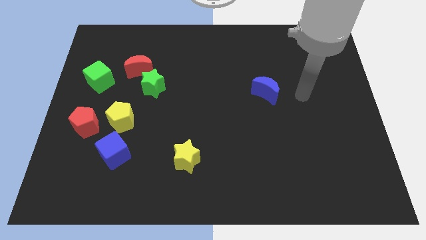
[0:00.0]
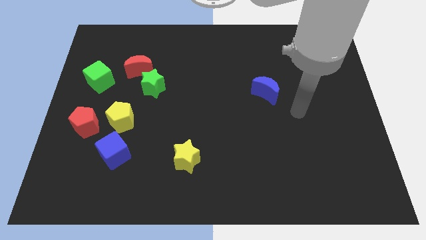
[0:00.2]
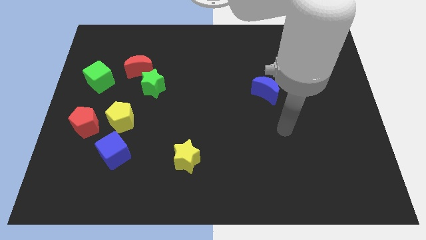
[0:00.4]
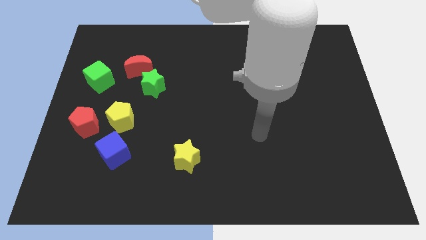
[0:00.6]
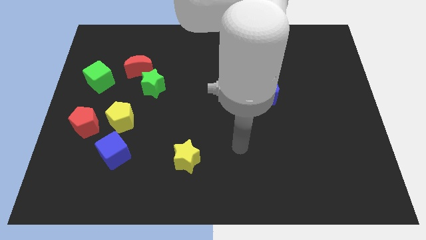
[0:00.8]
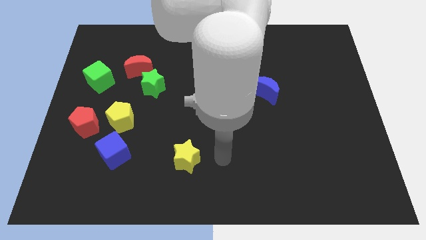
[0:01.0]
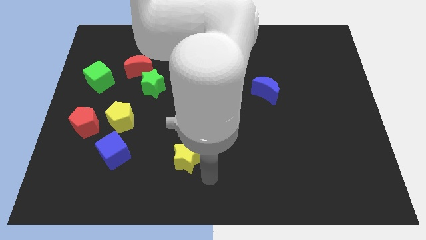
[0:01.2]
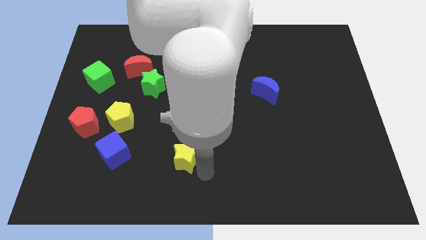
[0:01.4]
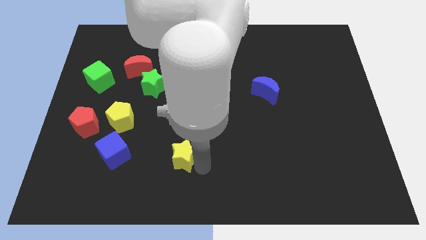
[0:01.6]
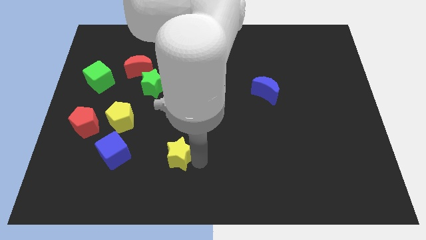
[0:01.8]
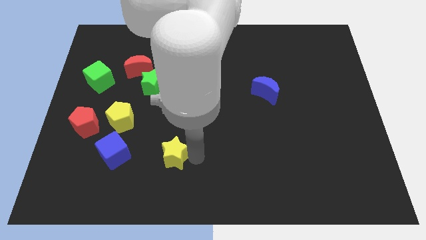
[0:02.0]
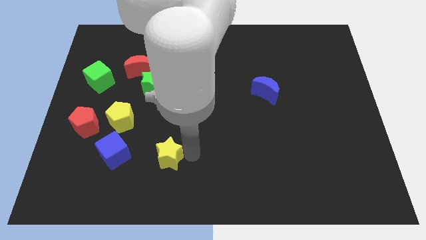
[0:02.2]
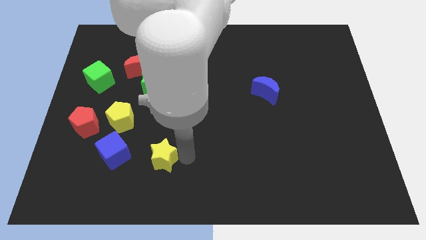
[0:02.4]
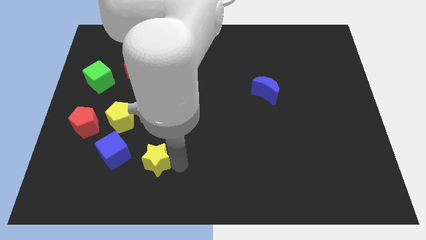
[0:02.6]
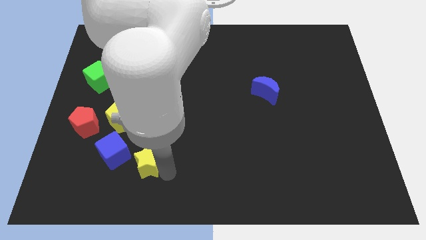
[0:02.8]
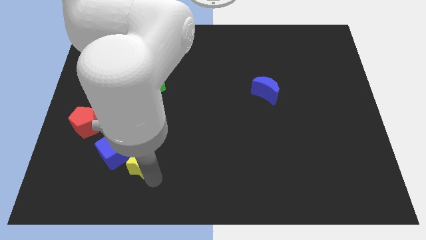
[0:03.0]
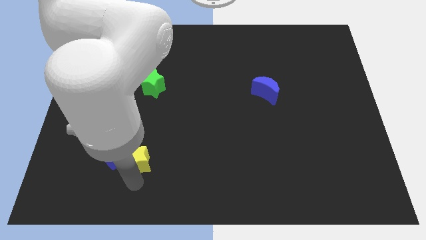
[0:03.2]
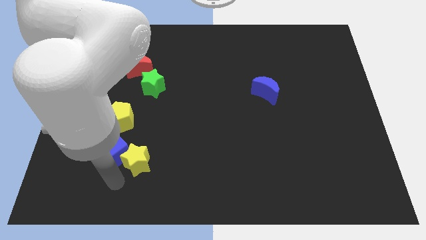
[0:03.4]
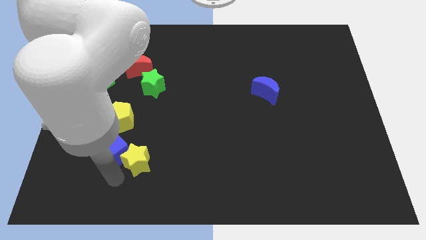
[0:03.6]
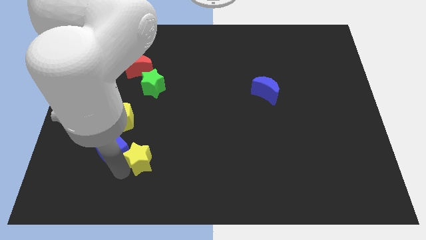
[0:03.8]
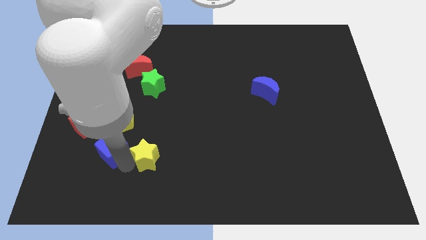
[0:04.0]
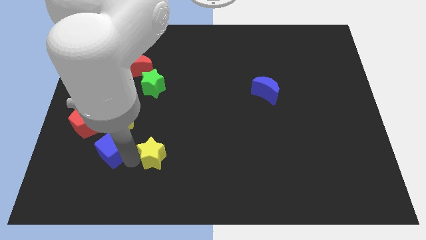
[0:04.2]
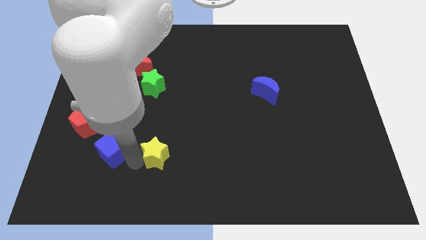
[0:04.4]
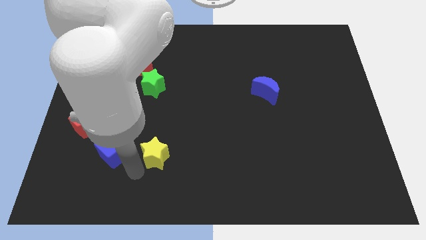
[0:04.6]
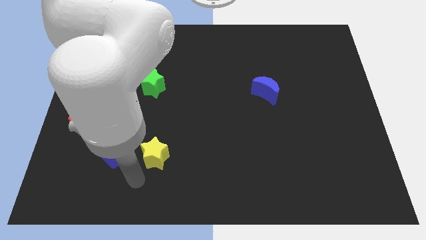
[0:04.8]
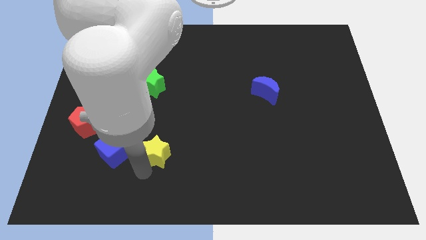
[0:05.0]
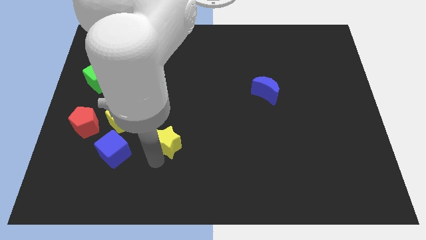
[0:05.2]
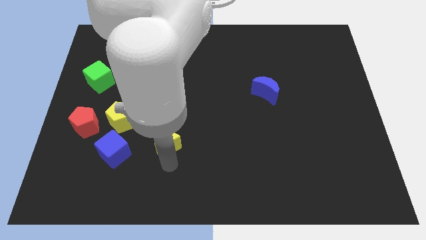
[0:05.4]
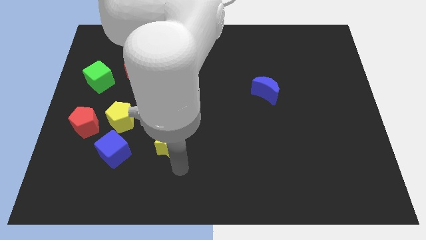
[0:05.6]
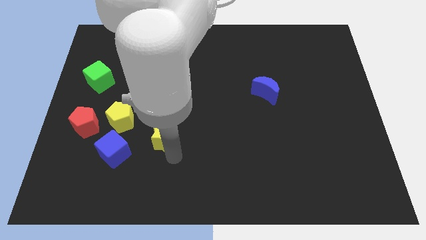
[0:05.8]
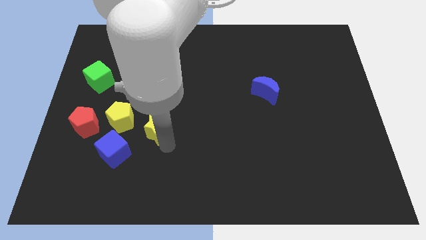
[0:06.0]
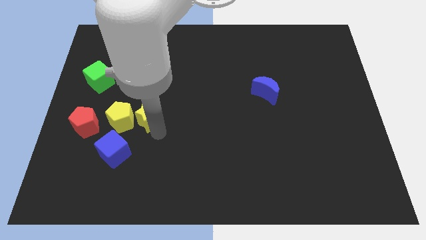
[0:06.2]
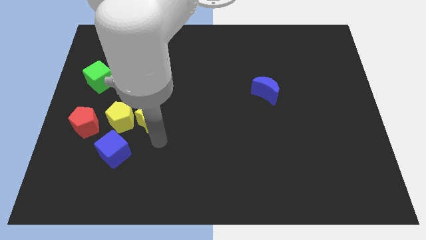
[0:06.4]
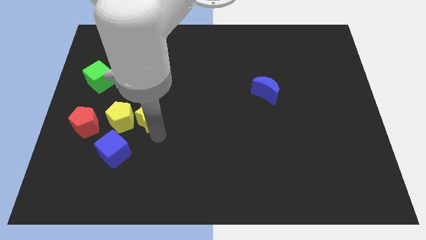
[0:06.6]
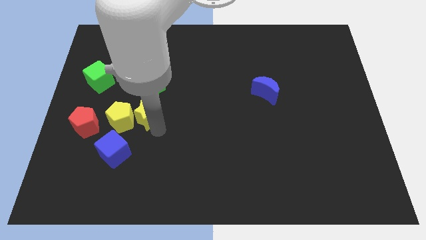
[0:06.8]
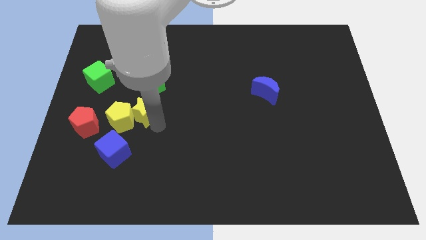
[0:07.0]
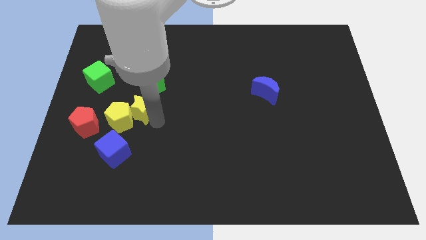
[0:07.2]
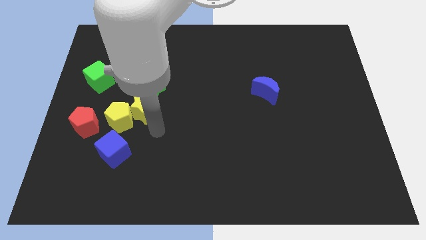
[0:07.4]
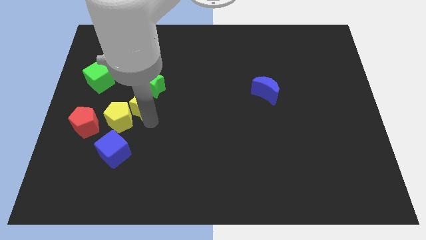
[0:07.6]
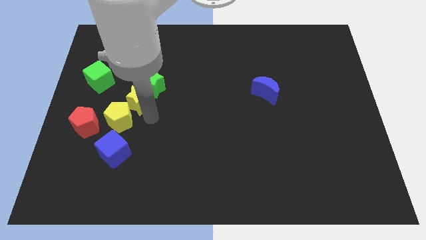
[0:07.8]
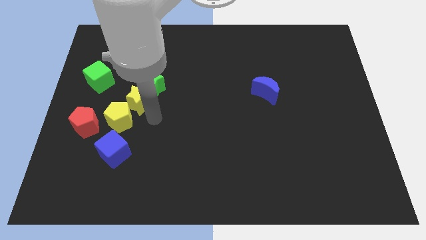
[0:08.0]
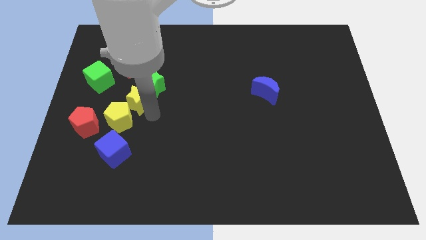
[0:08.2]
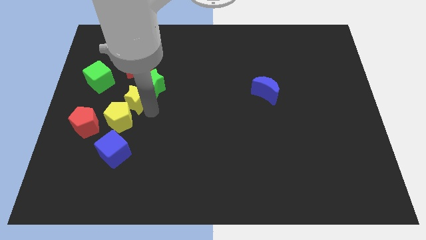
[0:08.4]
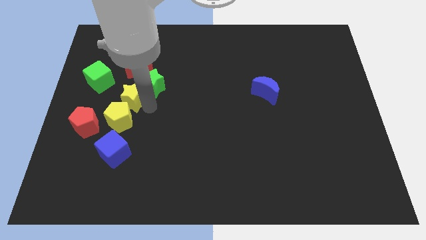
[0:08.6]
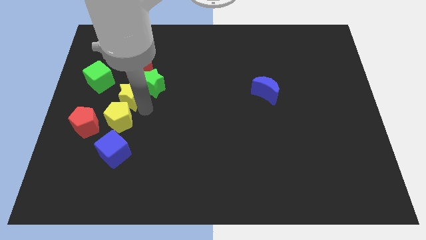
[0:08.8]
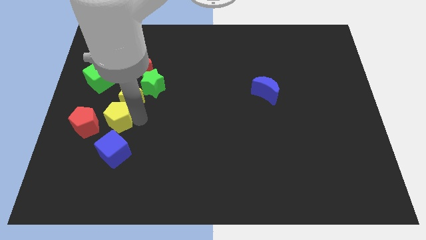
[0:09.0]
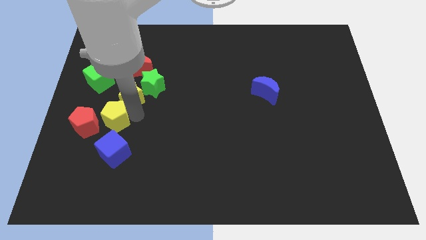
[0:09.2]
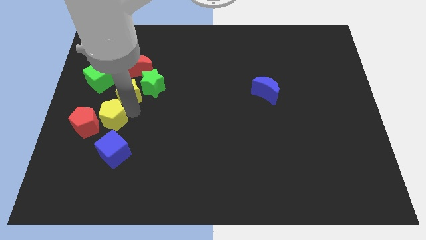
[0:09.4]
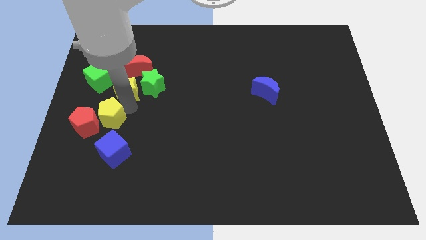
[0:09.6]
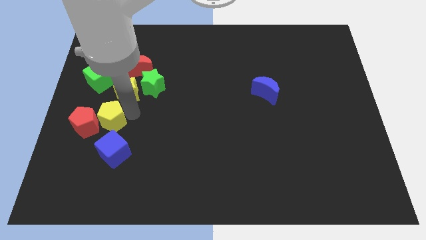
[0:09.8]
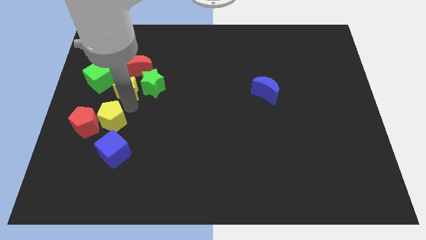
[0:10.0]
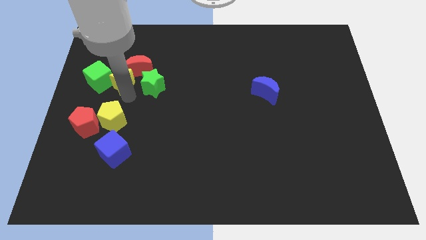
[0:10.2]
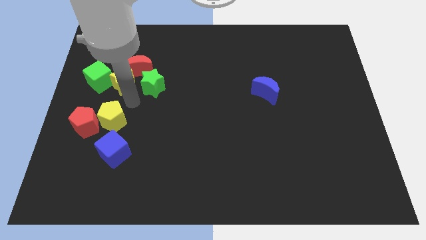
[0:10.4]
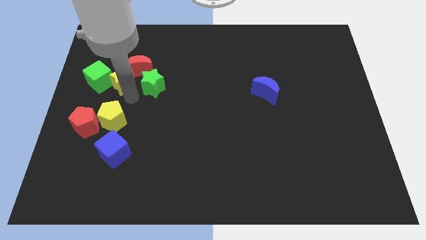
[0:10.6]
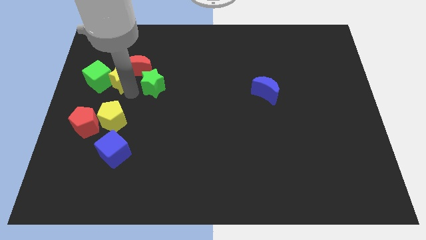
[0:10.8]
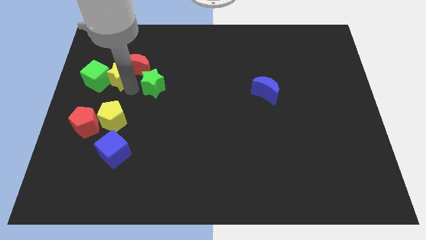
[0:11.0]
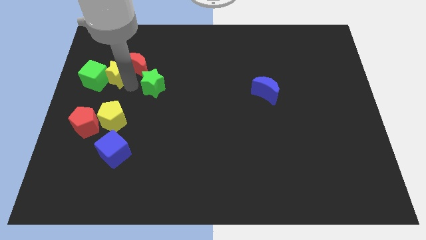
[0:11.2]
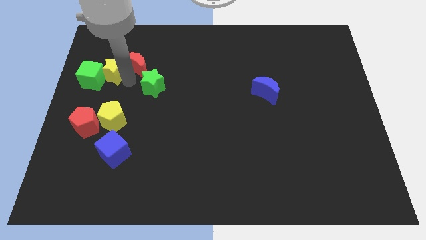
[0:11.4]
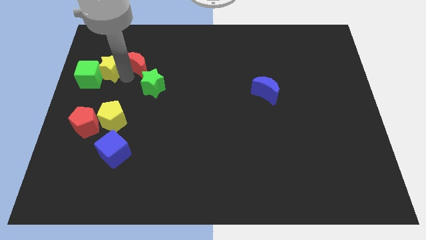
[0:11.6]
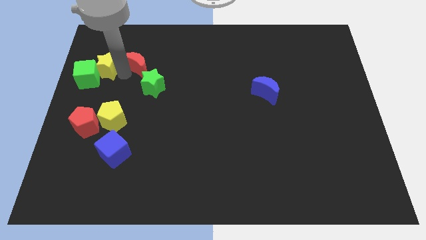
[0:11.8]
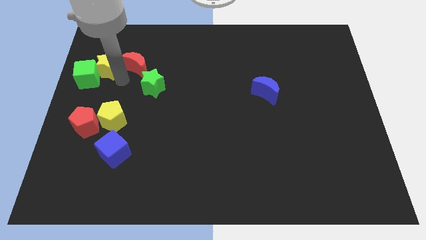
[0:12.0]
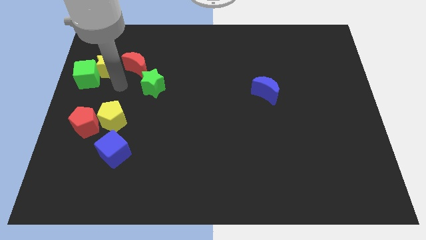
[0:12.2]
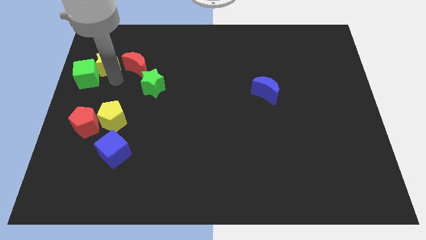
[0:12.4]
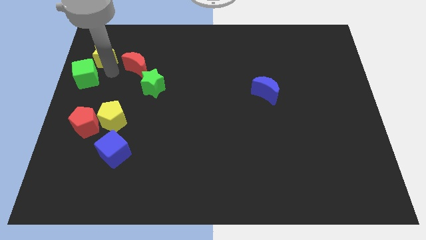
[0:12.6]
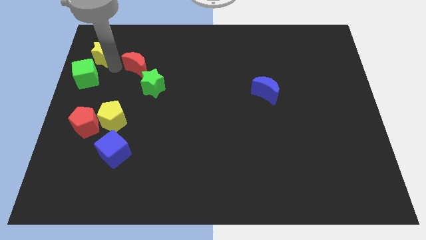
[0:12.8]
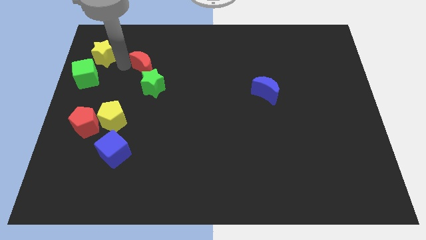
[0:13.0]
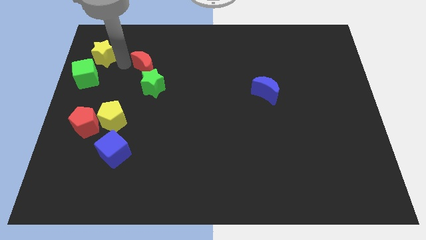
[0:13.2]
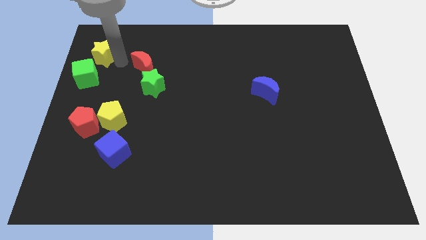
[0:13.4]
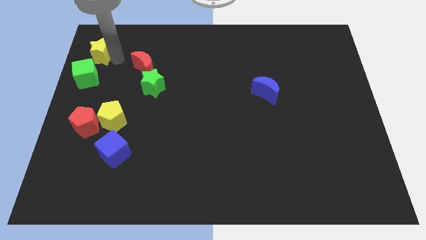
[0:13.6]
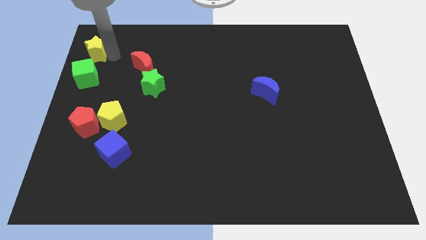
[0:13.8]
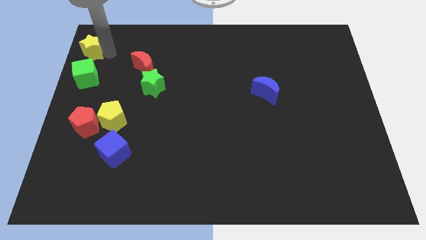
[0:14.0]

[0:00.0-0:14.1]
push the yellow star to the top left
